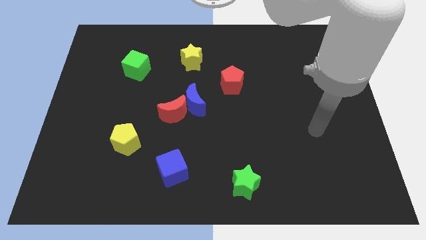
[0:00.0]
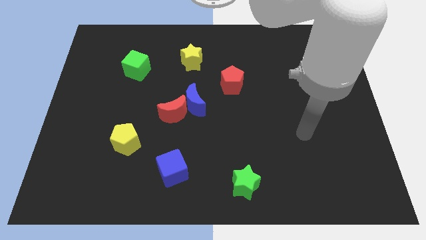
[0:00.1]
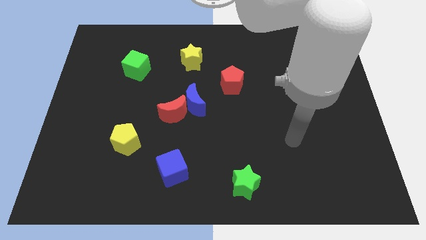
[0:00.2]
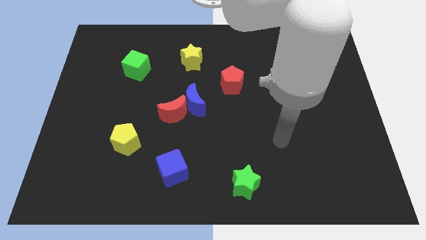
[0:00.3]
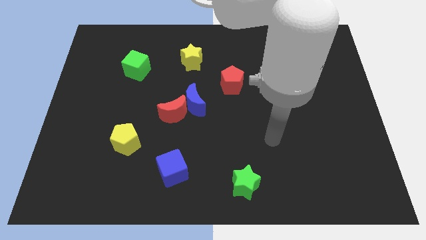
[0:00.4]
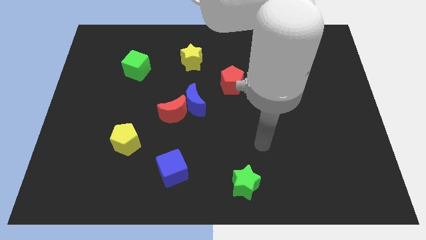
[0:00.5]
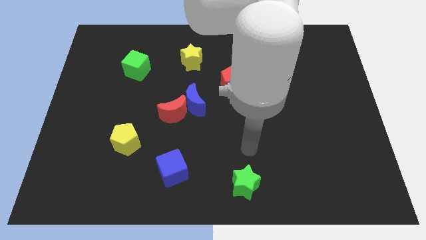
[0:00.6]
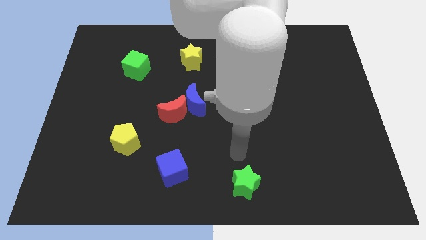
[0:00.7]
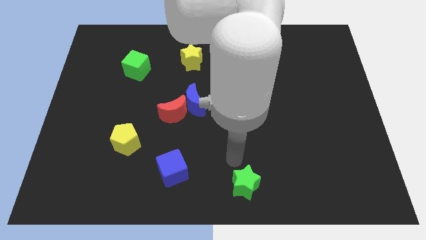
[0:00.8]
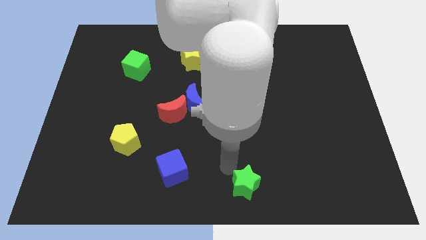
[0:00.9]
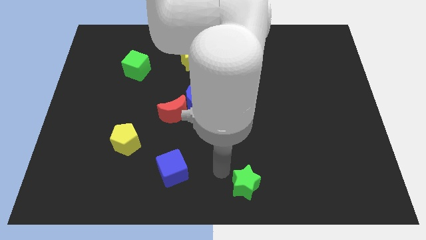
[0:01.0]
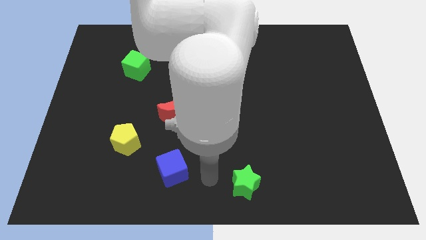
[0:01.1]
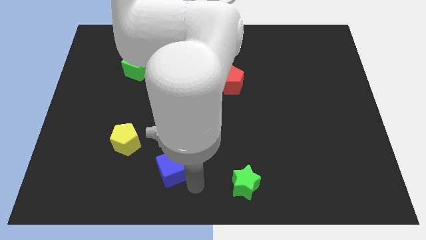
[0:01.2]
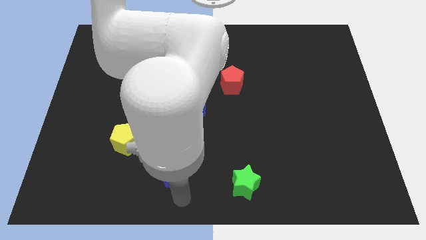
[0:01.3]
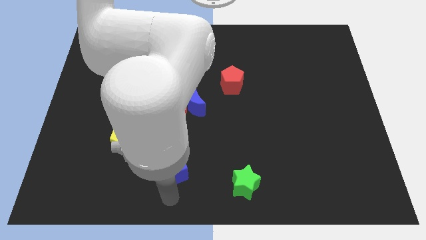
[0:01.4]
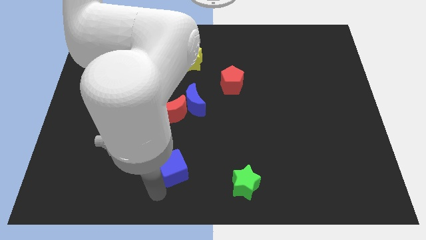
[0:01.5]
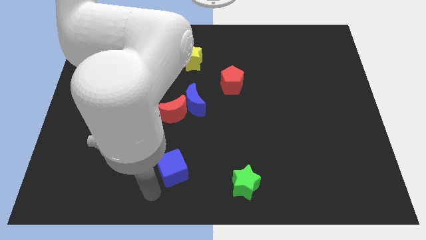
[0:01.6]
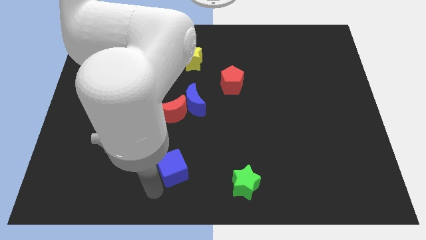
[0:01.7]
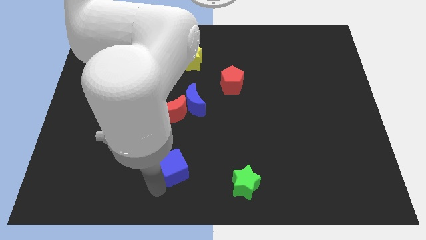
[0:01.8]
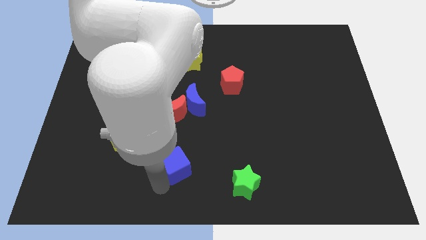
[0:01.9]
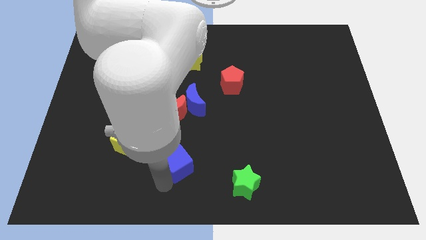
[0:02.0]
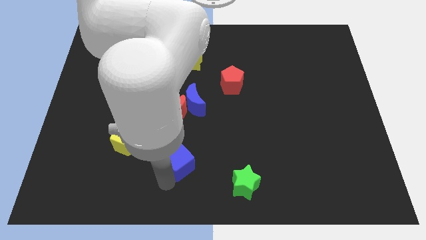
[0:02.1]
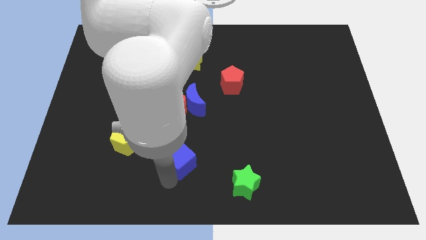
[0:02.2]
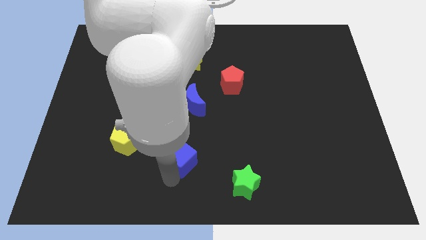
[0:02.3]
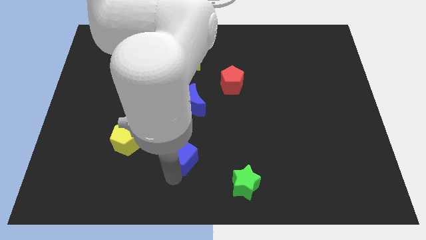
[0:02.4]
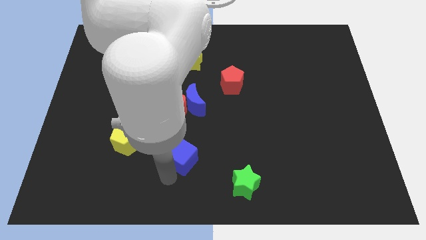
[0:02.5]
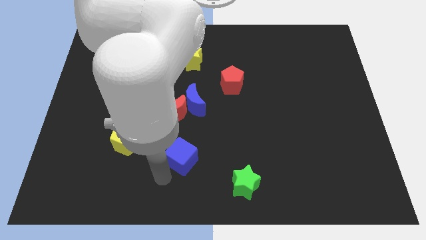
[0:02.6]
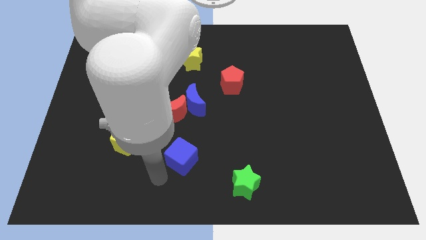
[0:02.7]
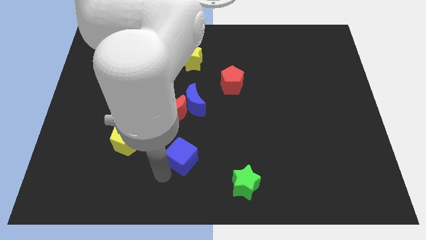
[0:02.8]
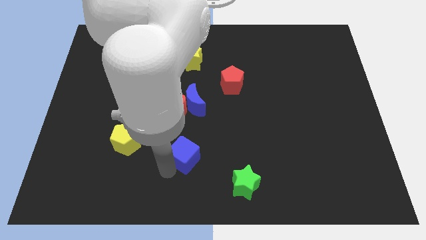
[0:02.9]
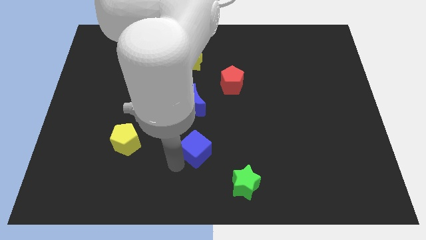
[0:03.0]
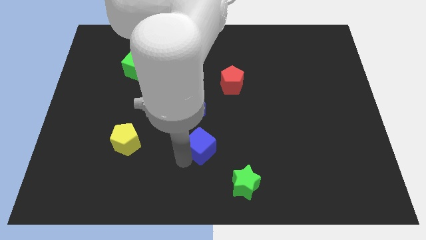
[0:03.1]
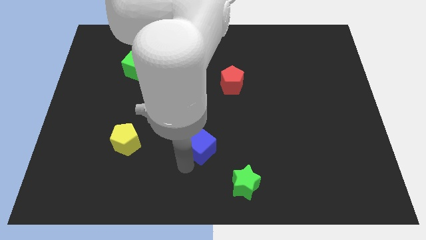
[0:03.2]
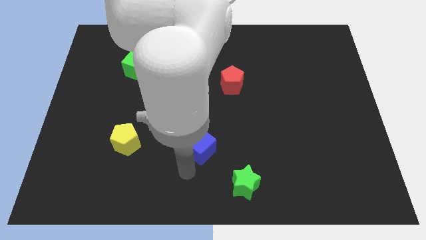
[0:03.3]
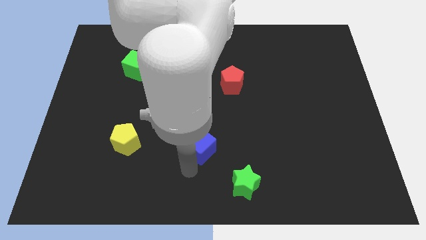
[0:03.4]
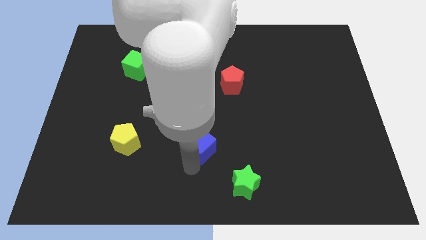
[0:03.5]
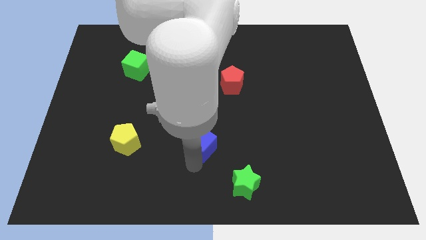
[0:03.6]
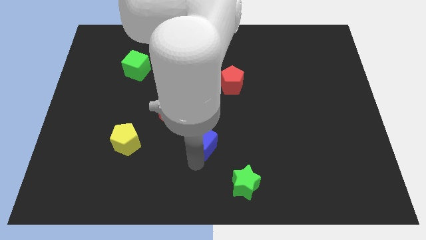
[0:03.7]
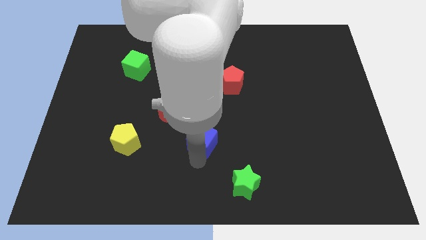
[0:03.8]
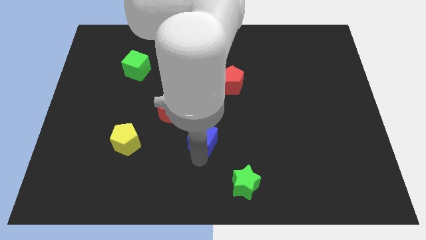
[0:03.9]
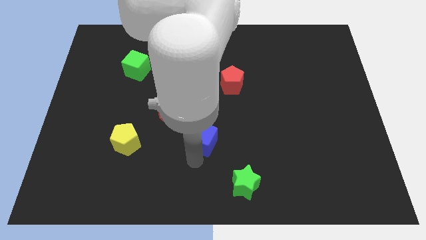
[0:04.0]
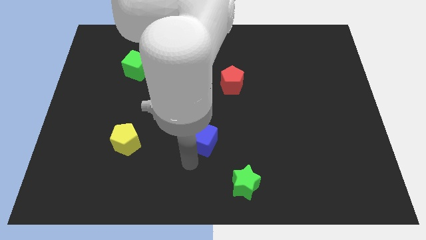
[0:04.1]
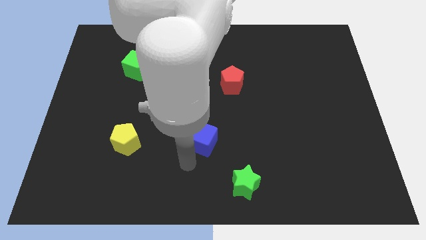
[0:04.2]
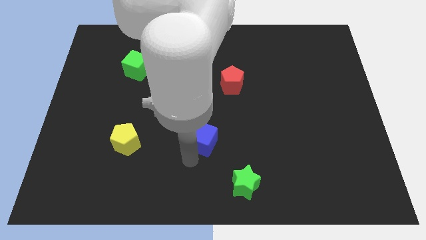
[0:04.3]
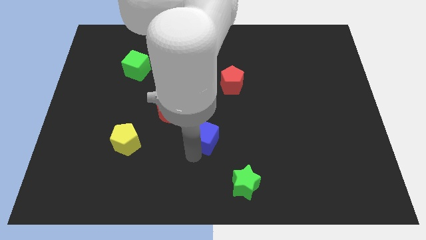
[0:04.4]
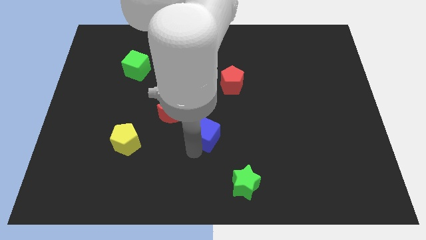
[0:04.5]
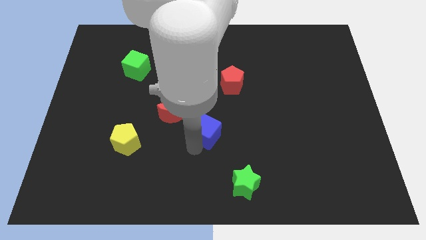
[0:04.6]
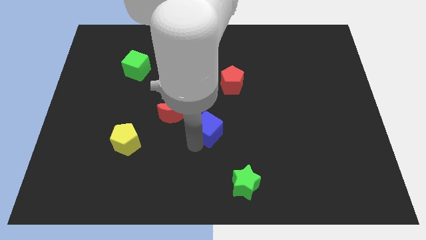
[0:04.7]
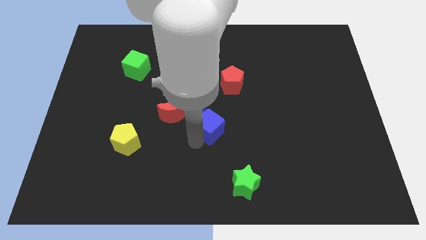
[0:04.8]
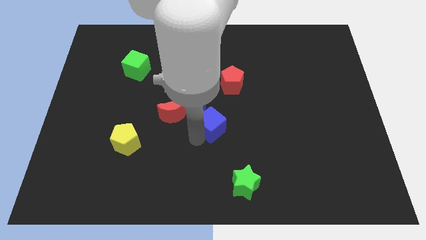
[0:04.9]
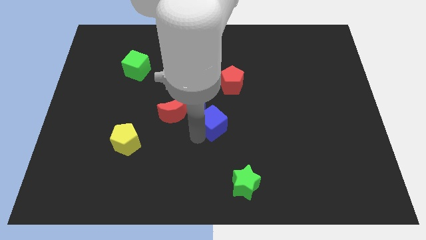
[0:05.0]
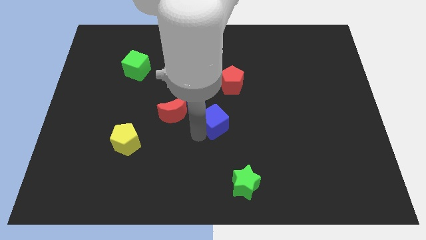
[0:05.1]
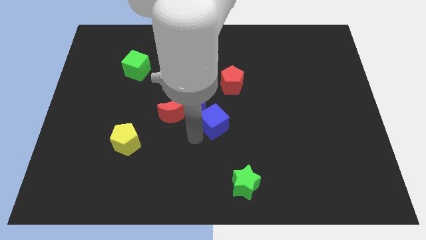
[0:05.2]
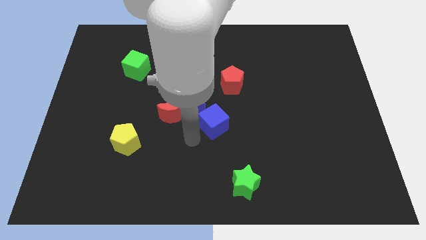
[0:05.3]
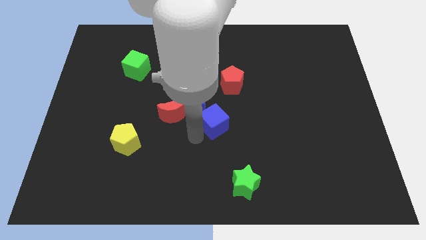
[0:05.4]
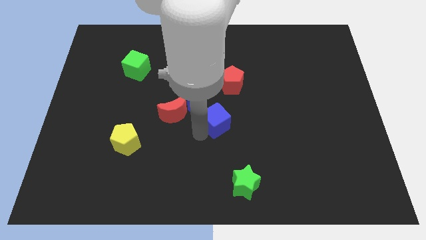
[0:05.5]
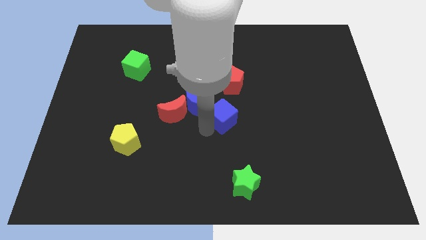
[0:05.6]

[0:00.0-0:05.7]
slide the blue cube just right of the blue moon
